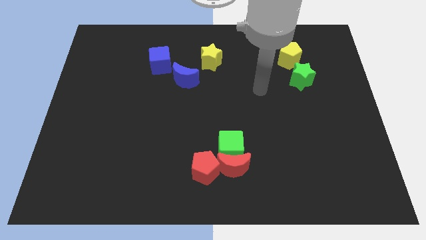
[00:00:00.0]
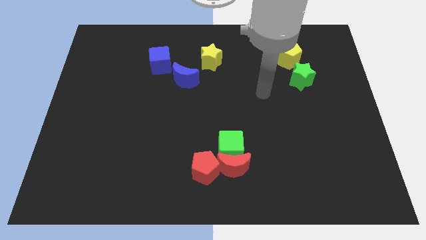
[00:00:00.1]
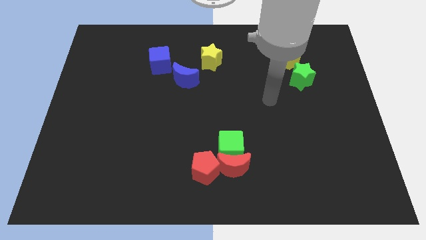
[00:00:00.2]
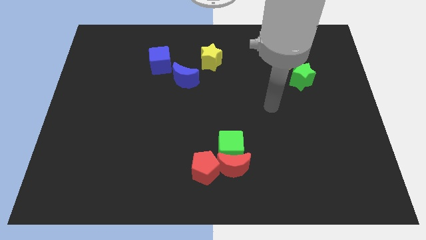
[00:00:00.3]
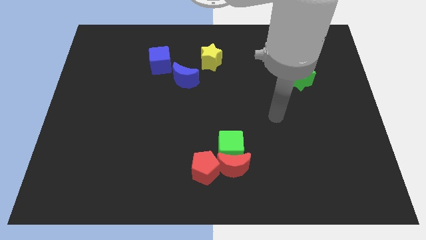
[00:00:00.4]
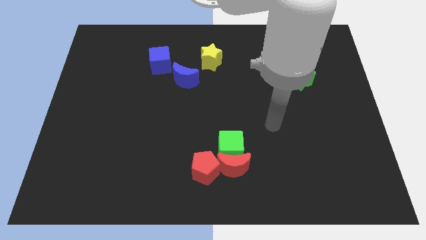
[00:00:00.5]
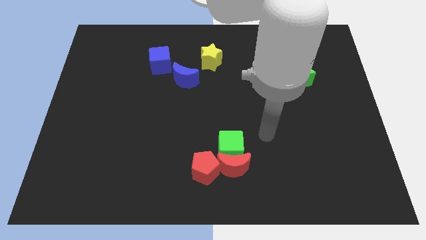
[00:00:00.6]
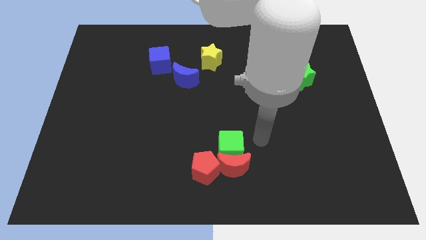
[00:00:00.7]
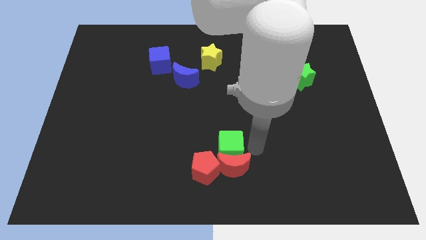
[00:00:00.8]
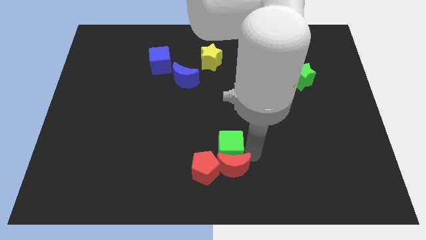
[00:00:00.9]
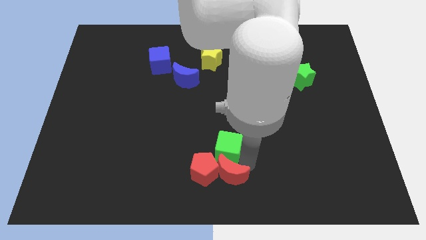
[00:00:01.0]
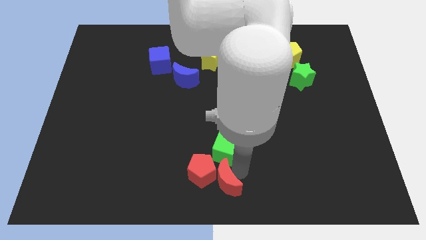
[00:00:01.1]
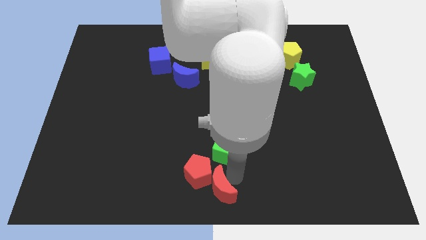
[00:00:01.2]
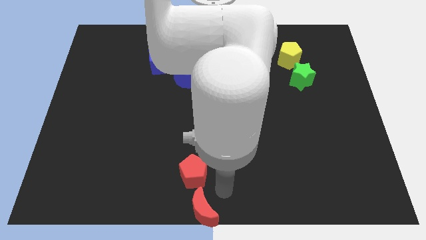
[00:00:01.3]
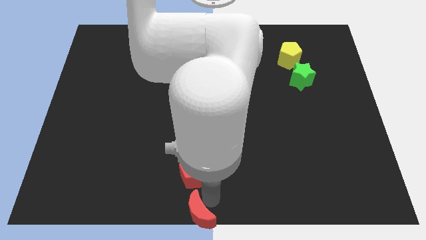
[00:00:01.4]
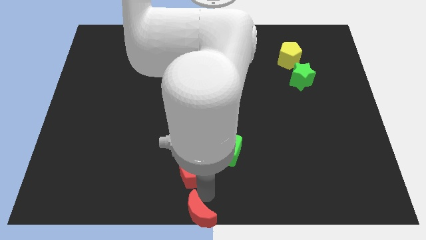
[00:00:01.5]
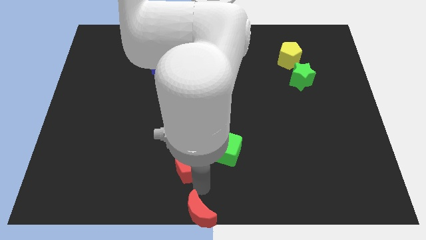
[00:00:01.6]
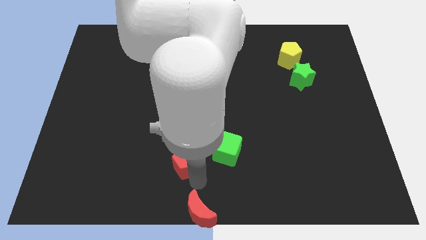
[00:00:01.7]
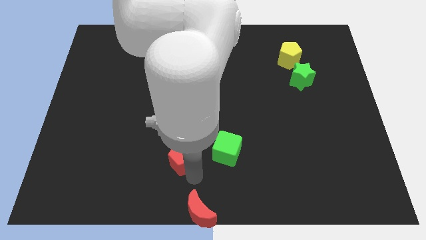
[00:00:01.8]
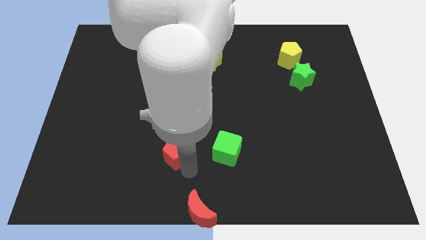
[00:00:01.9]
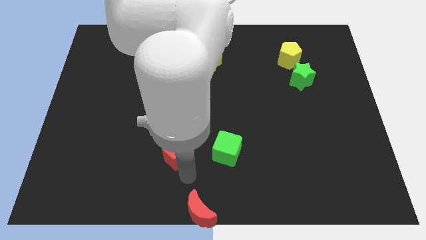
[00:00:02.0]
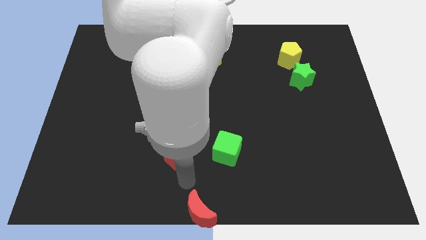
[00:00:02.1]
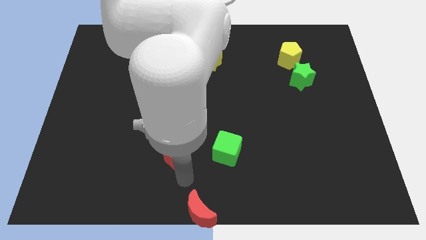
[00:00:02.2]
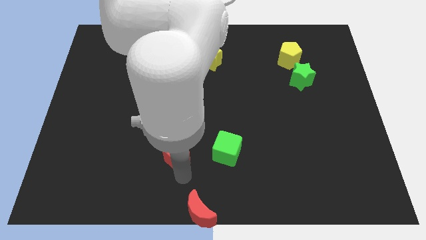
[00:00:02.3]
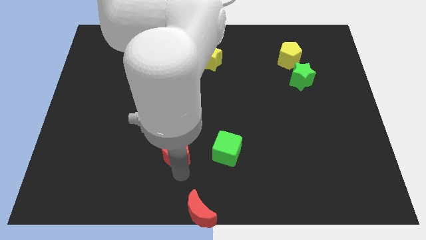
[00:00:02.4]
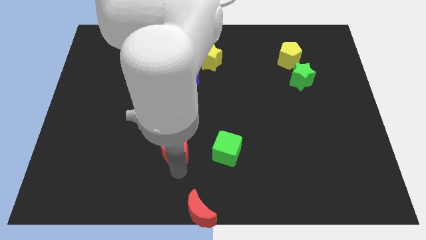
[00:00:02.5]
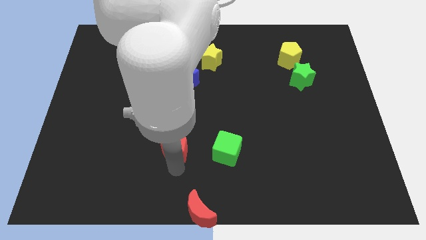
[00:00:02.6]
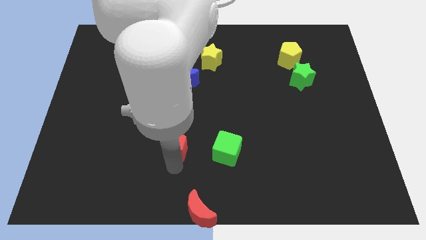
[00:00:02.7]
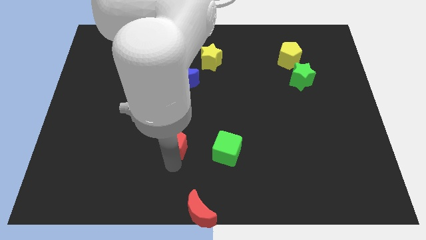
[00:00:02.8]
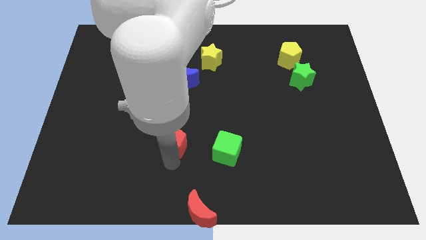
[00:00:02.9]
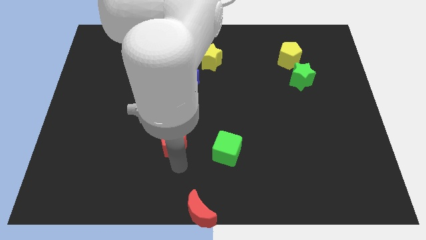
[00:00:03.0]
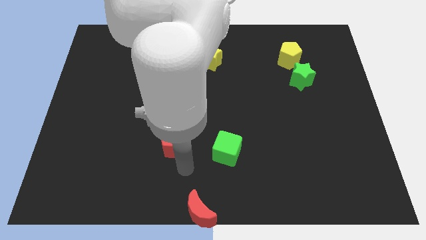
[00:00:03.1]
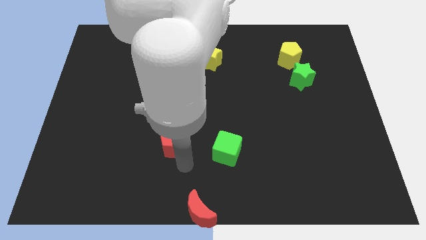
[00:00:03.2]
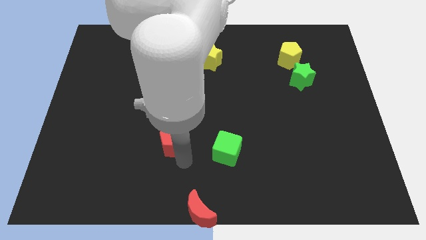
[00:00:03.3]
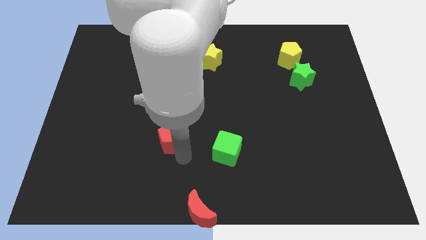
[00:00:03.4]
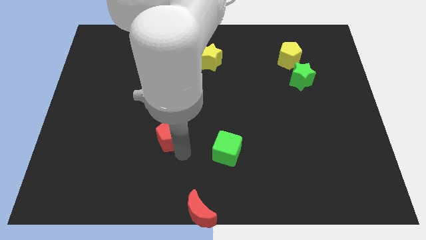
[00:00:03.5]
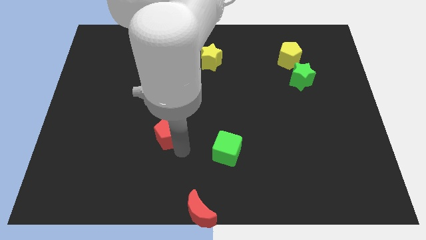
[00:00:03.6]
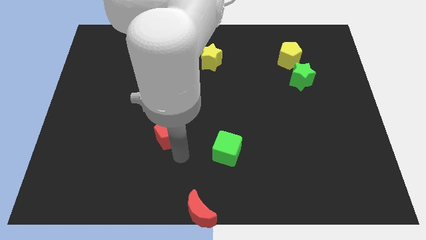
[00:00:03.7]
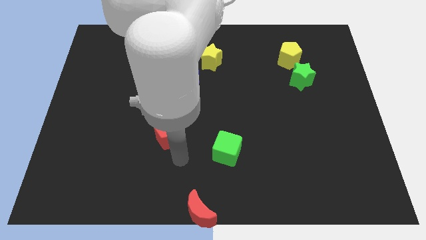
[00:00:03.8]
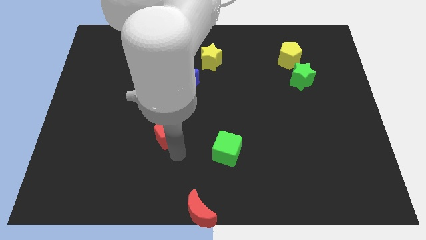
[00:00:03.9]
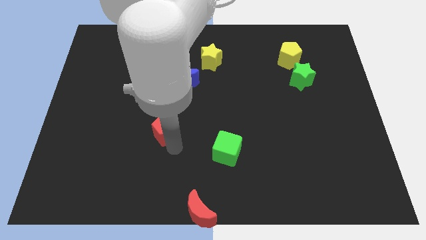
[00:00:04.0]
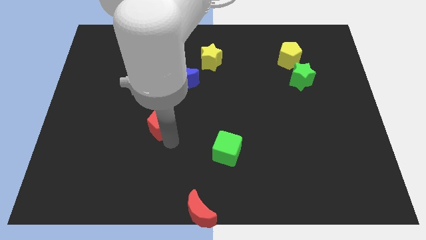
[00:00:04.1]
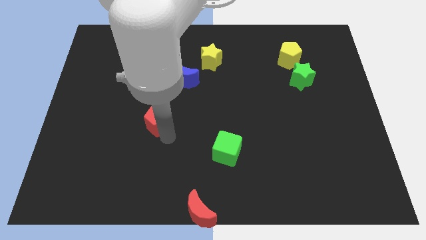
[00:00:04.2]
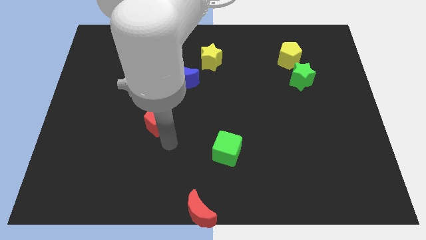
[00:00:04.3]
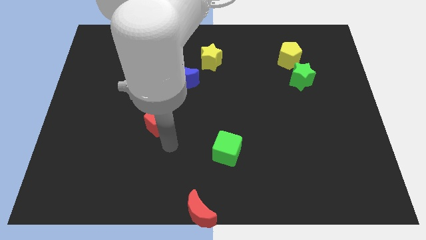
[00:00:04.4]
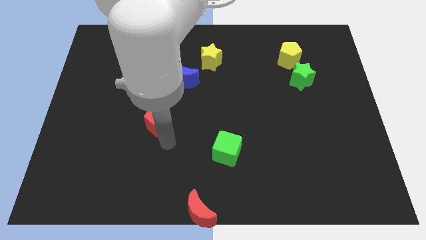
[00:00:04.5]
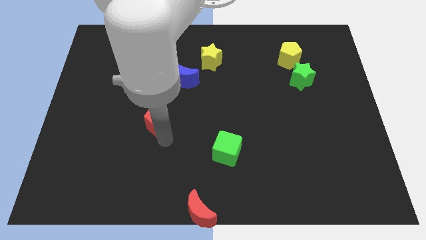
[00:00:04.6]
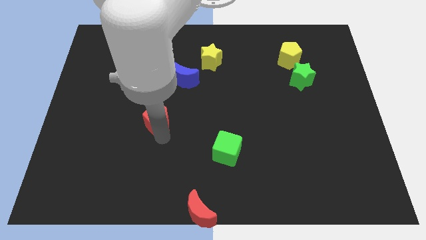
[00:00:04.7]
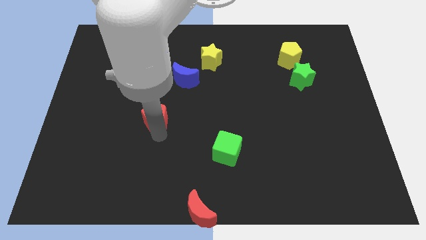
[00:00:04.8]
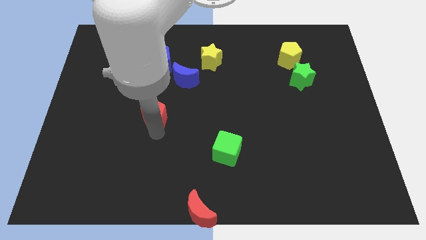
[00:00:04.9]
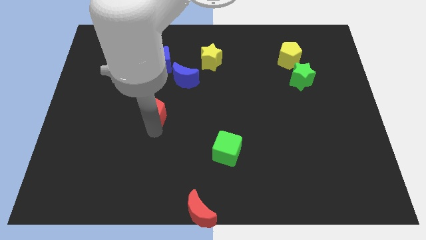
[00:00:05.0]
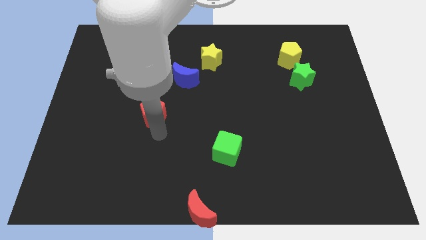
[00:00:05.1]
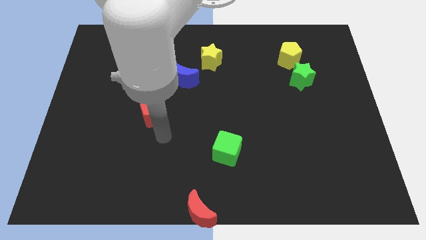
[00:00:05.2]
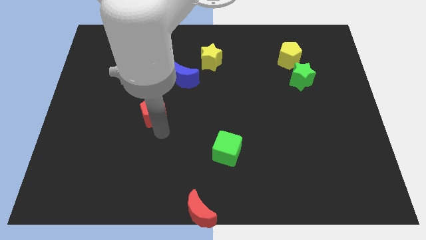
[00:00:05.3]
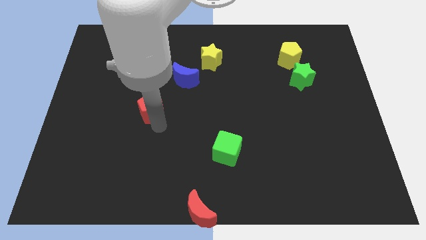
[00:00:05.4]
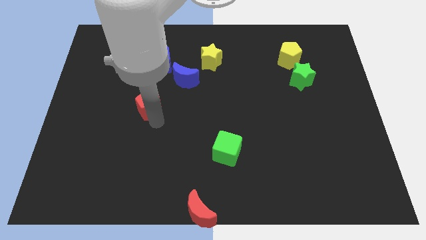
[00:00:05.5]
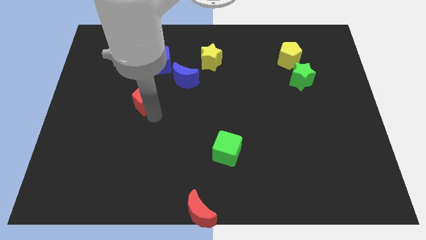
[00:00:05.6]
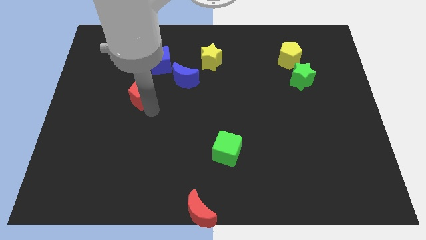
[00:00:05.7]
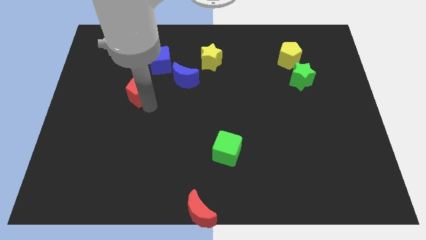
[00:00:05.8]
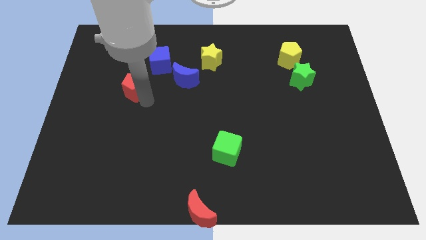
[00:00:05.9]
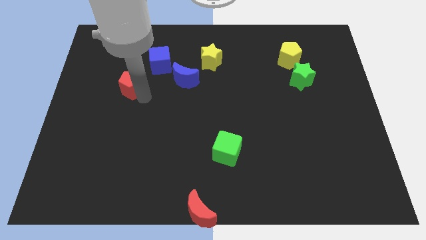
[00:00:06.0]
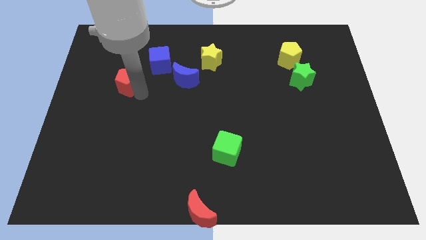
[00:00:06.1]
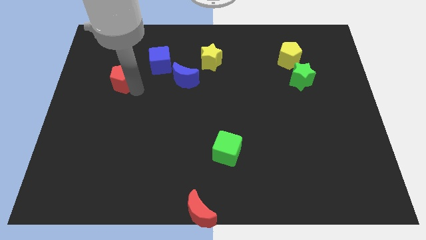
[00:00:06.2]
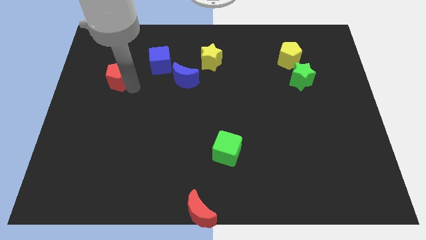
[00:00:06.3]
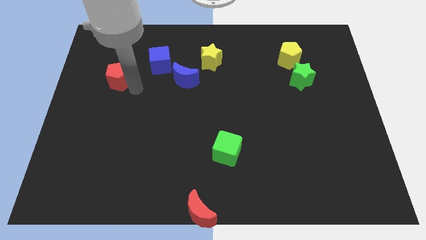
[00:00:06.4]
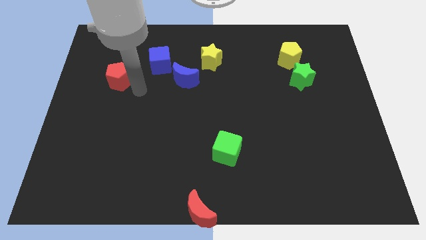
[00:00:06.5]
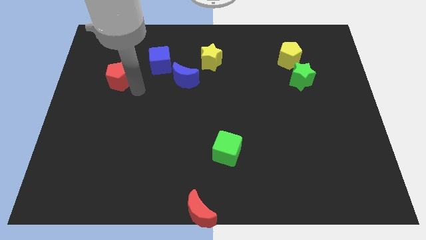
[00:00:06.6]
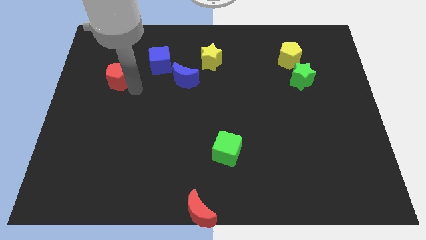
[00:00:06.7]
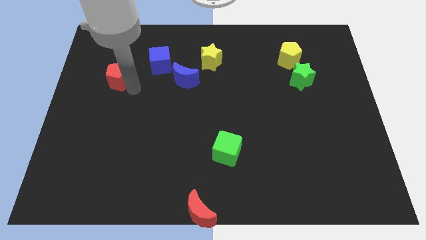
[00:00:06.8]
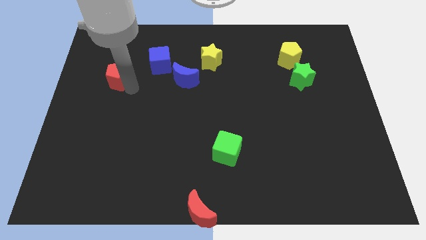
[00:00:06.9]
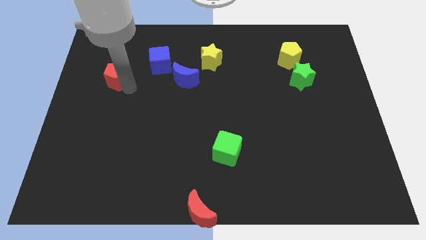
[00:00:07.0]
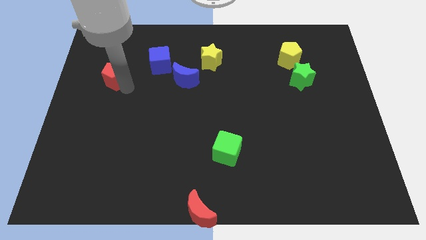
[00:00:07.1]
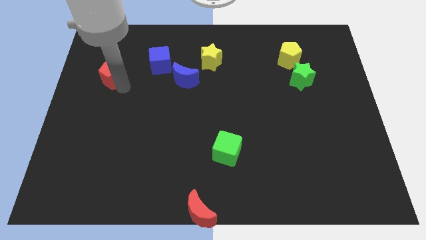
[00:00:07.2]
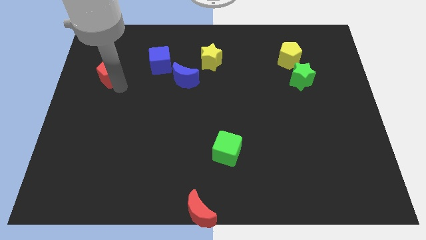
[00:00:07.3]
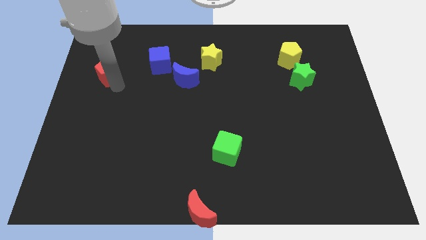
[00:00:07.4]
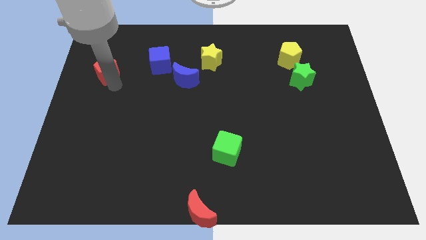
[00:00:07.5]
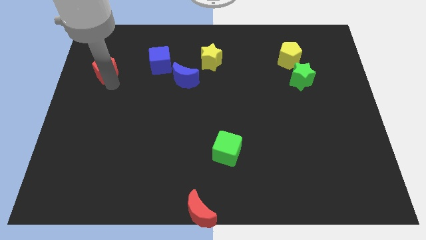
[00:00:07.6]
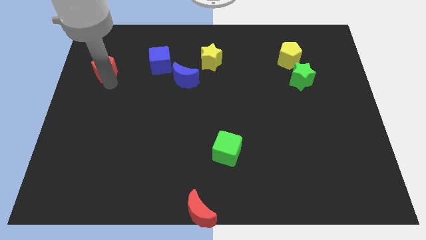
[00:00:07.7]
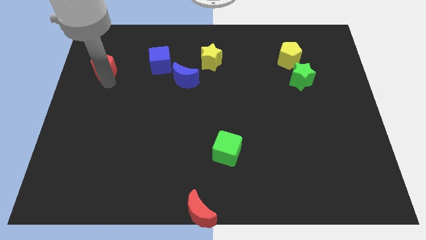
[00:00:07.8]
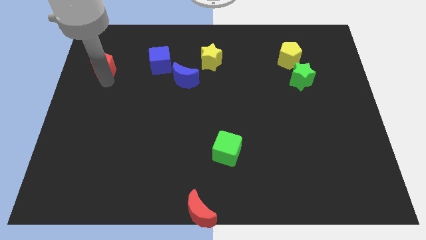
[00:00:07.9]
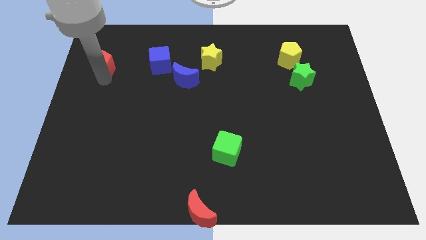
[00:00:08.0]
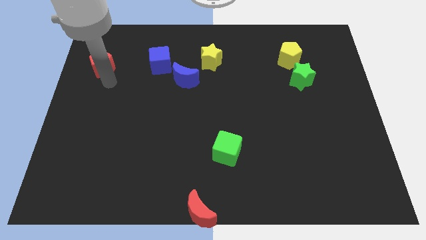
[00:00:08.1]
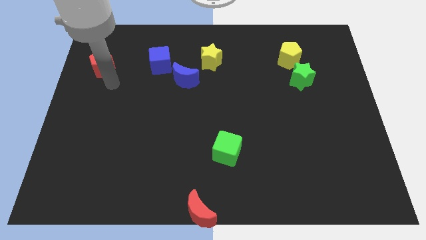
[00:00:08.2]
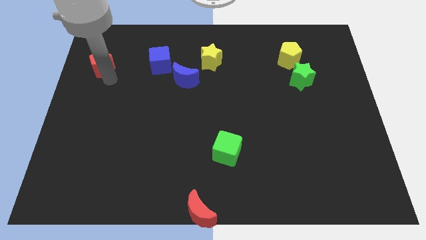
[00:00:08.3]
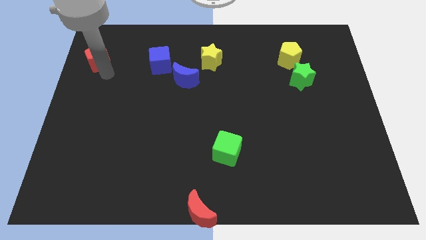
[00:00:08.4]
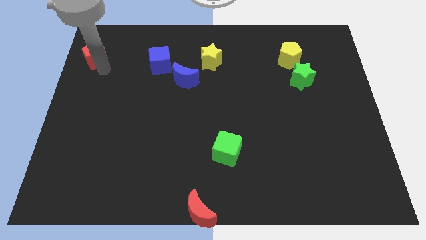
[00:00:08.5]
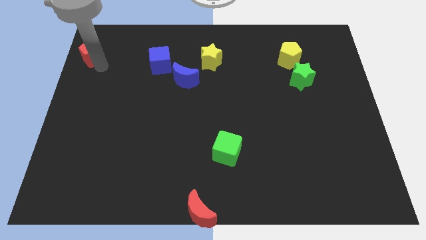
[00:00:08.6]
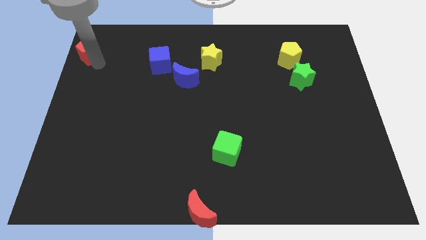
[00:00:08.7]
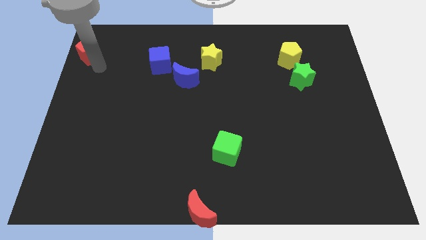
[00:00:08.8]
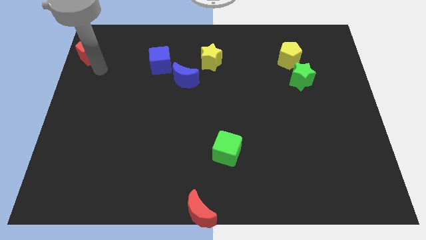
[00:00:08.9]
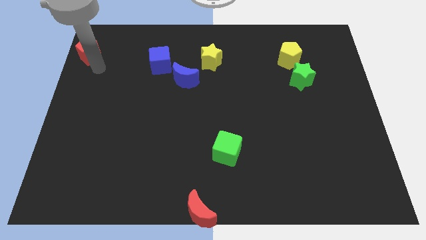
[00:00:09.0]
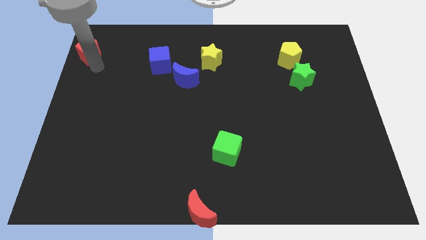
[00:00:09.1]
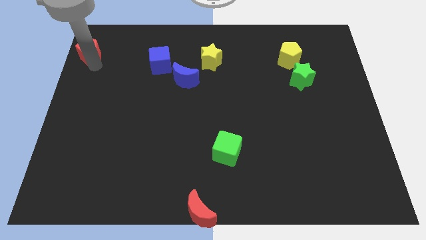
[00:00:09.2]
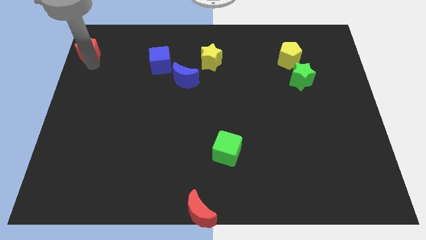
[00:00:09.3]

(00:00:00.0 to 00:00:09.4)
put the red pentagon to the top left corner
